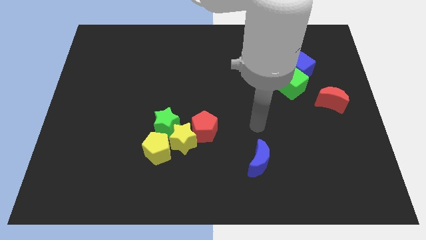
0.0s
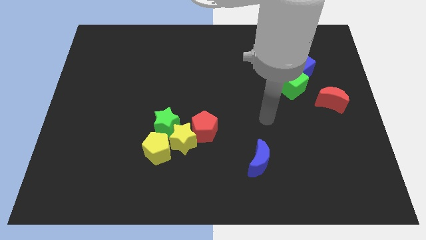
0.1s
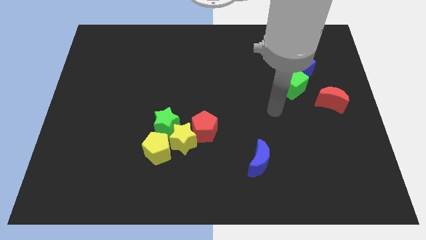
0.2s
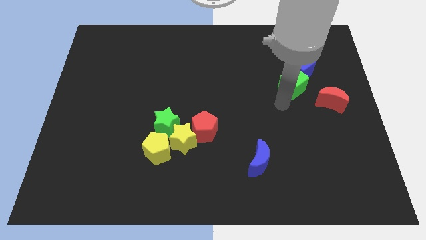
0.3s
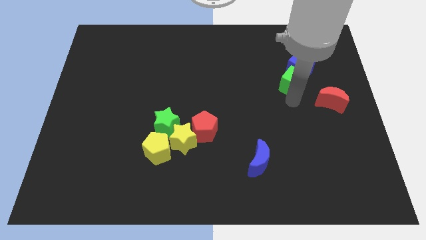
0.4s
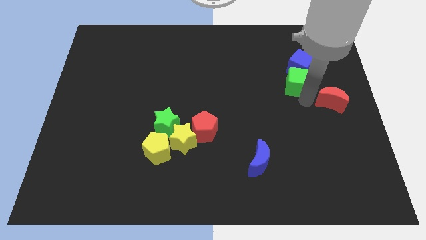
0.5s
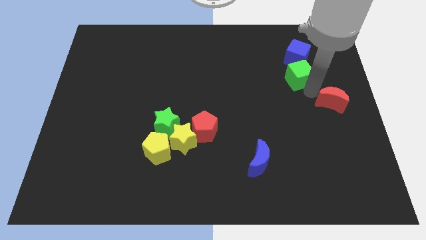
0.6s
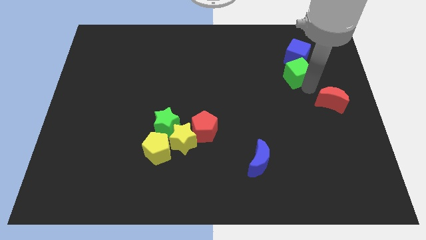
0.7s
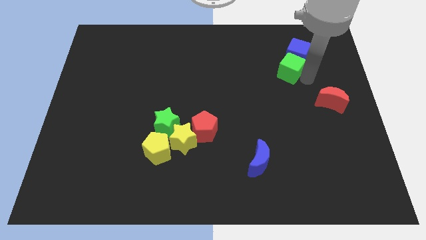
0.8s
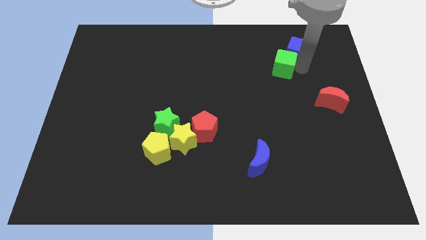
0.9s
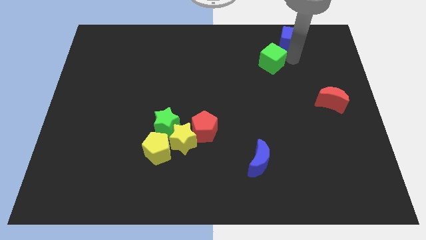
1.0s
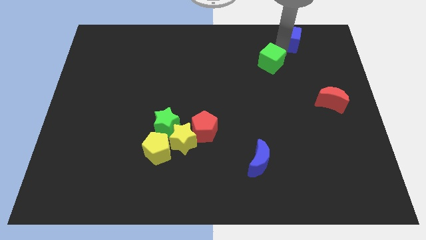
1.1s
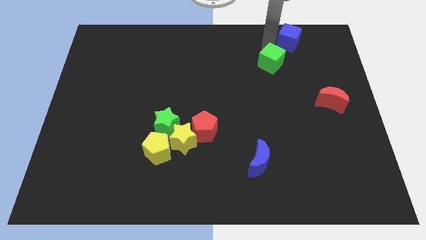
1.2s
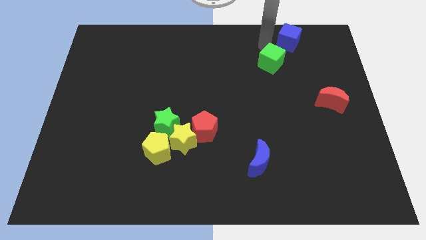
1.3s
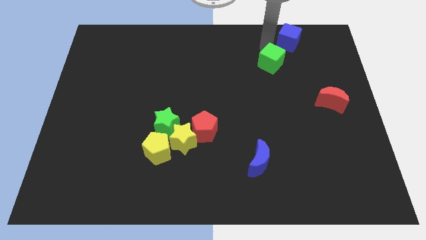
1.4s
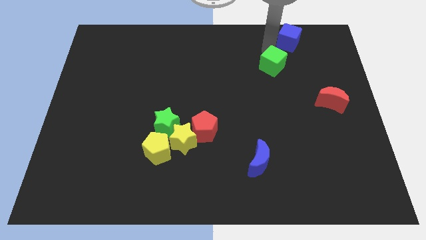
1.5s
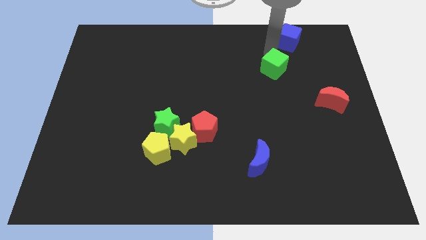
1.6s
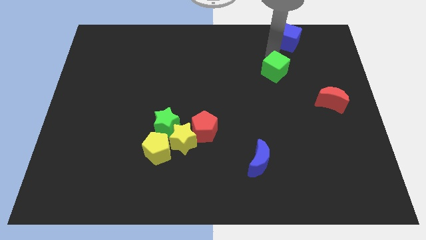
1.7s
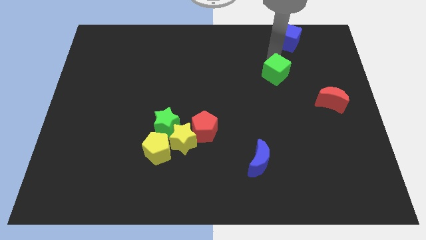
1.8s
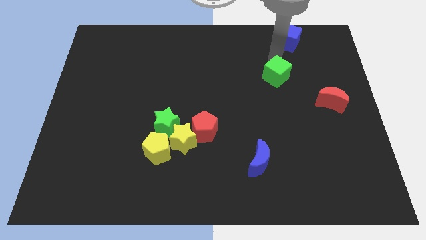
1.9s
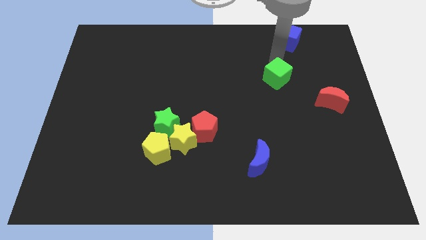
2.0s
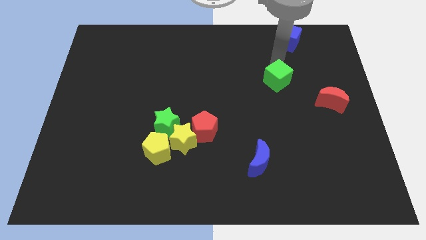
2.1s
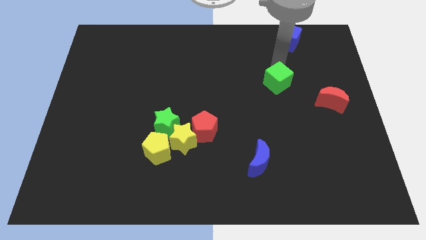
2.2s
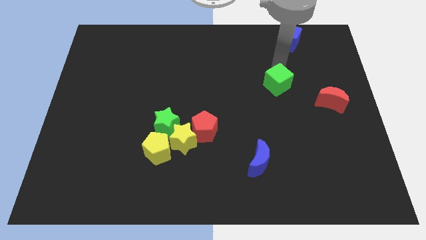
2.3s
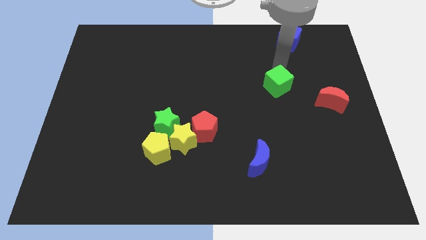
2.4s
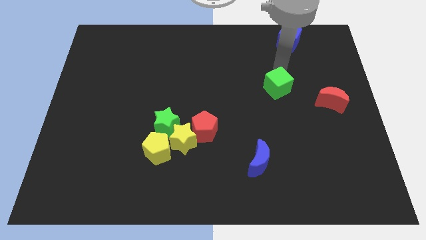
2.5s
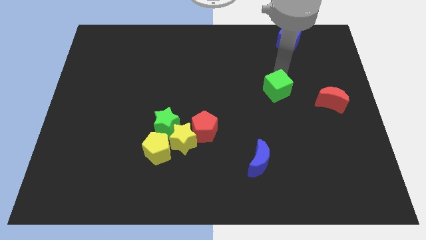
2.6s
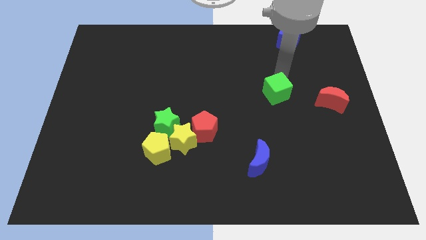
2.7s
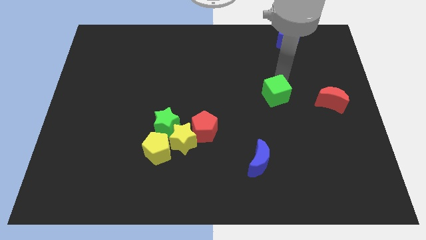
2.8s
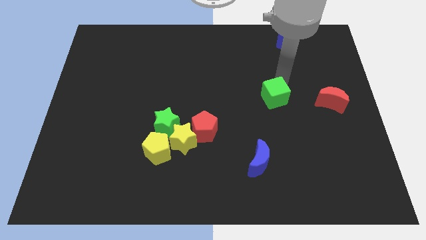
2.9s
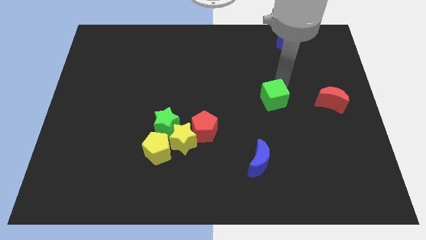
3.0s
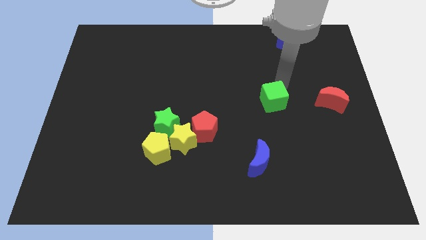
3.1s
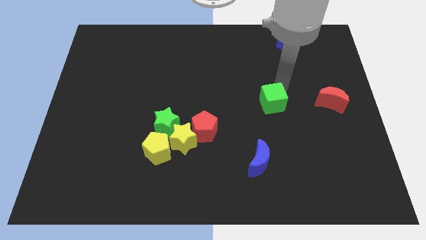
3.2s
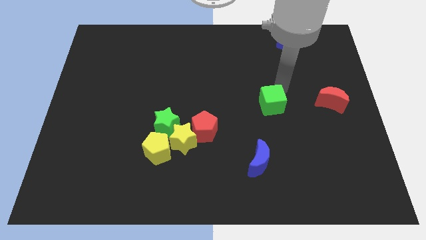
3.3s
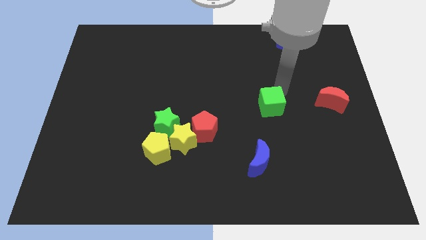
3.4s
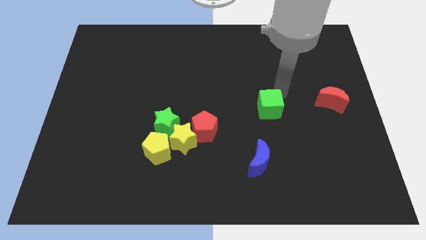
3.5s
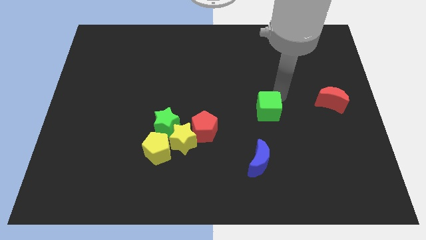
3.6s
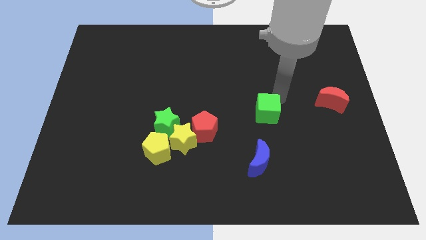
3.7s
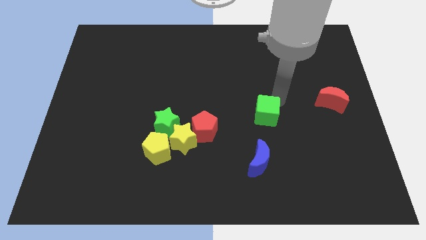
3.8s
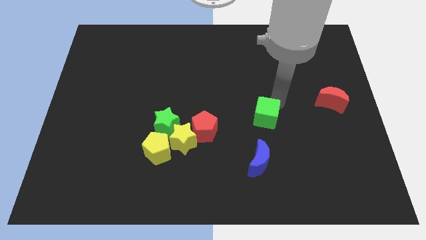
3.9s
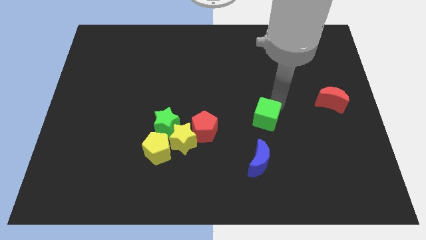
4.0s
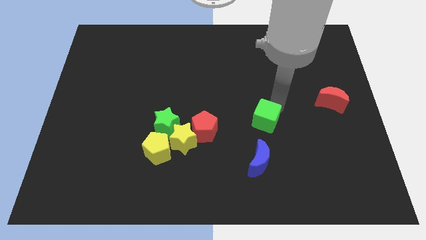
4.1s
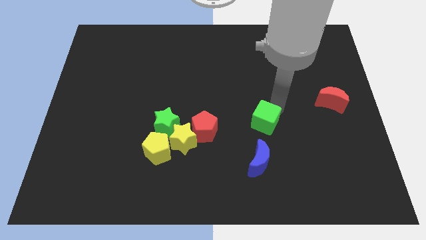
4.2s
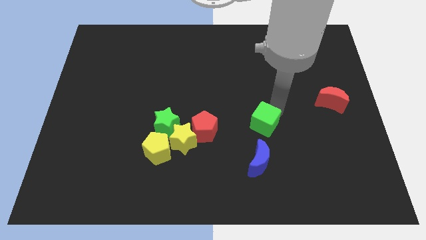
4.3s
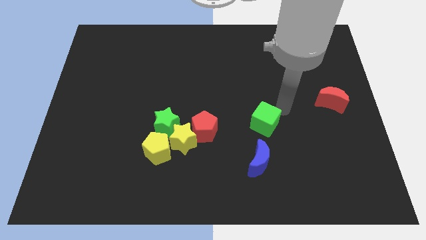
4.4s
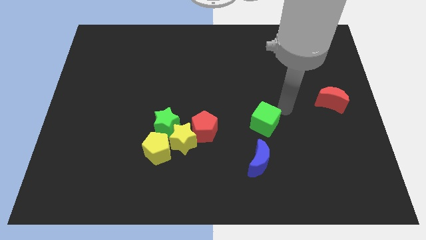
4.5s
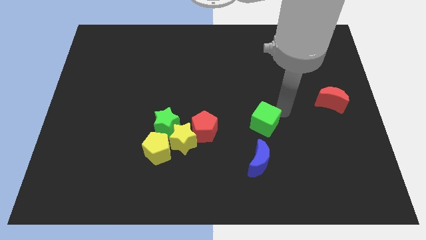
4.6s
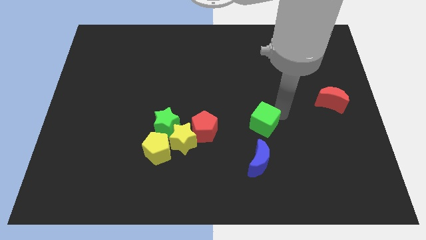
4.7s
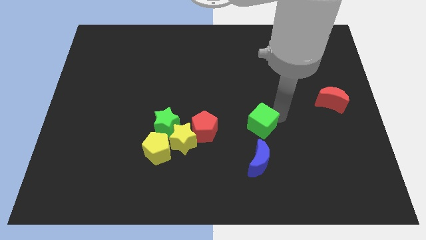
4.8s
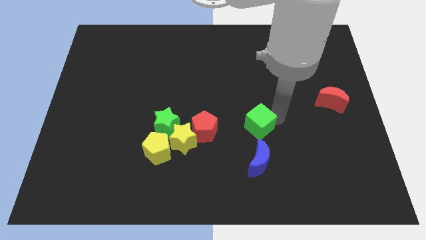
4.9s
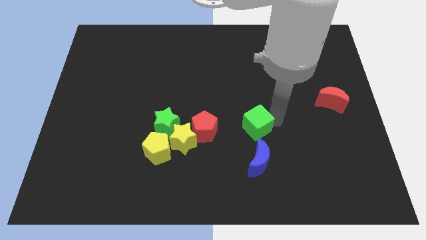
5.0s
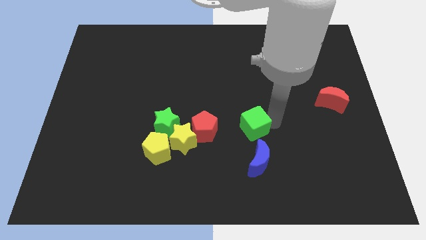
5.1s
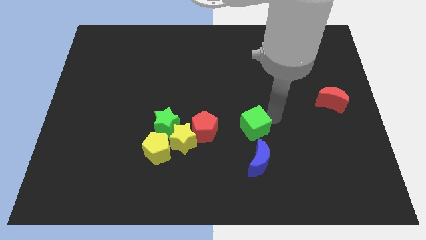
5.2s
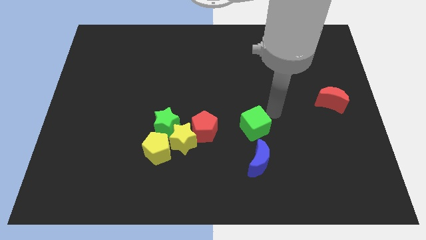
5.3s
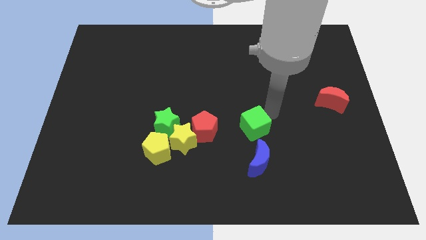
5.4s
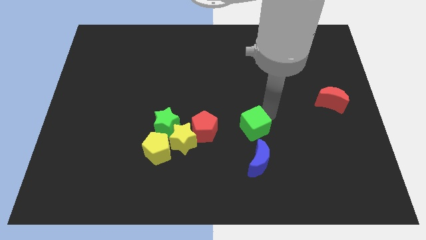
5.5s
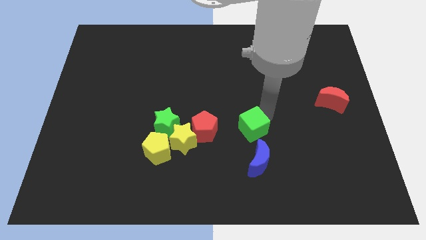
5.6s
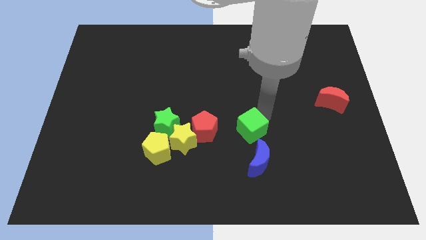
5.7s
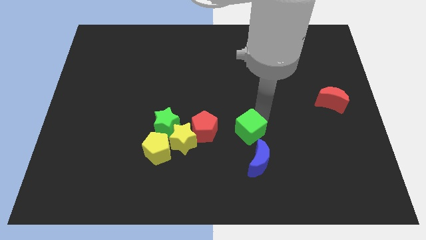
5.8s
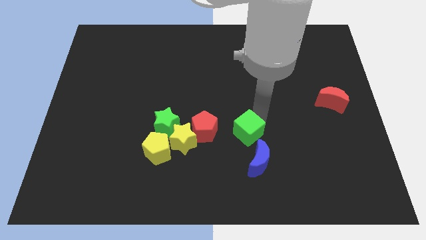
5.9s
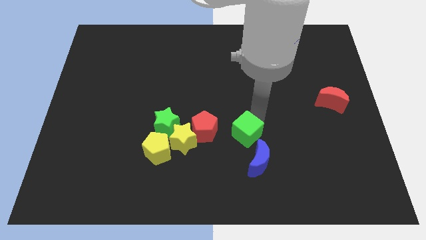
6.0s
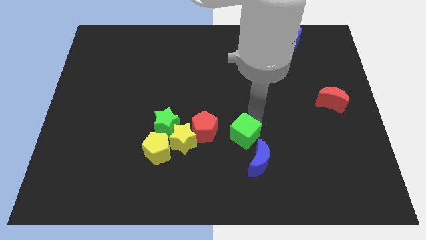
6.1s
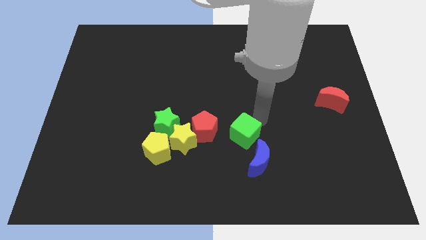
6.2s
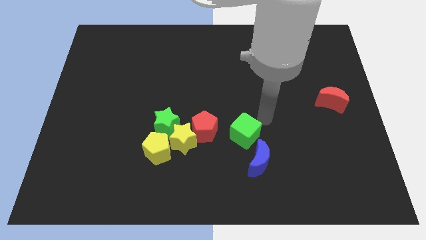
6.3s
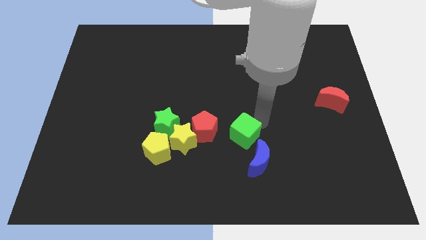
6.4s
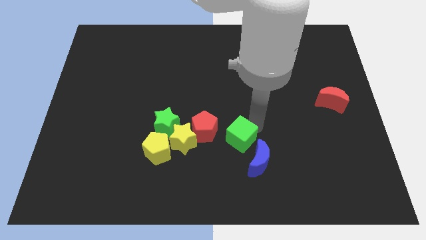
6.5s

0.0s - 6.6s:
slide the green cube diagonally down and to the left

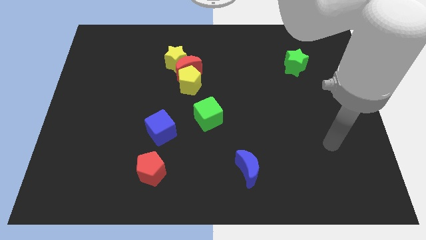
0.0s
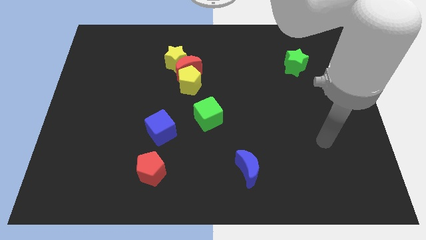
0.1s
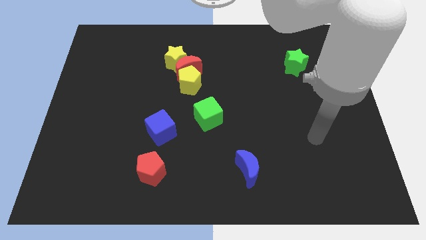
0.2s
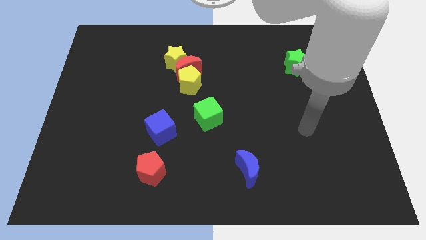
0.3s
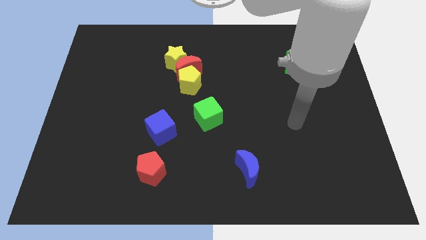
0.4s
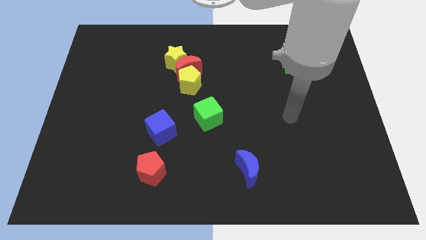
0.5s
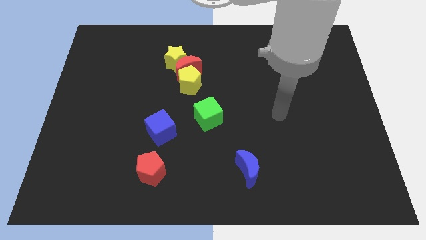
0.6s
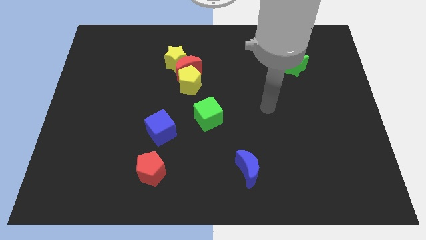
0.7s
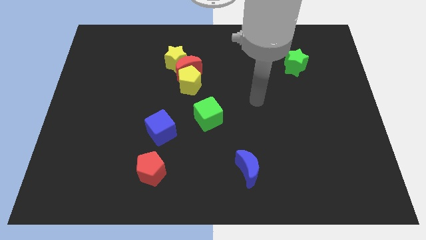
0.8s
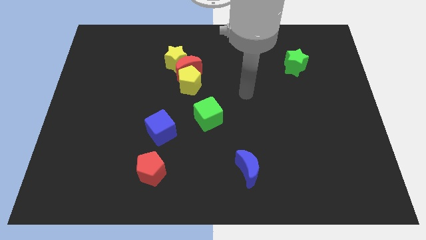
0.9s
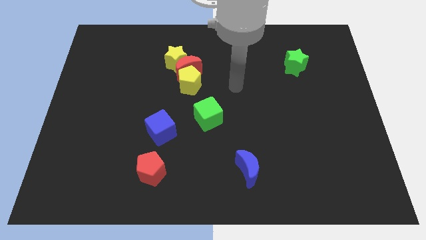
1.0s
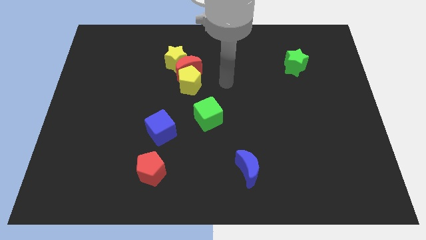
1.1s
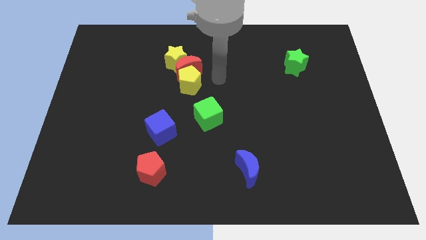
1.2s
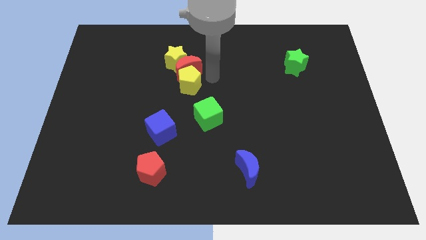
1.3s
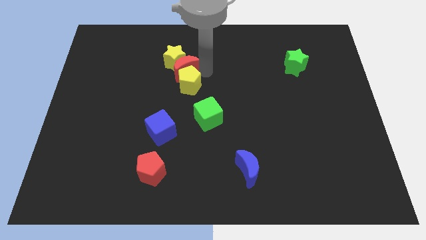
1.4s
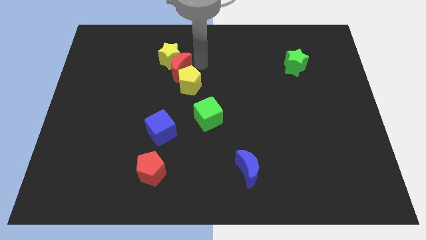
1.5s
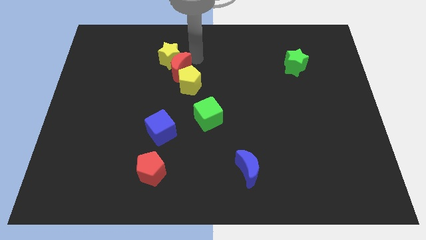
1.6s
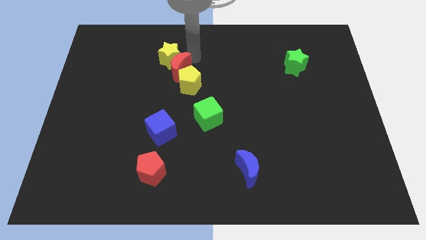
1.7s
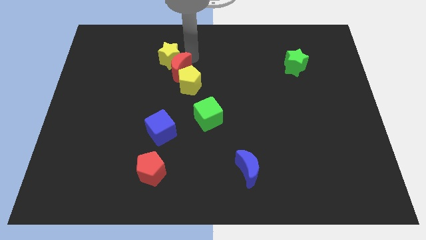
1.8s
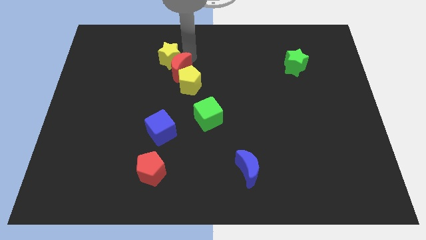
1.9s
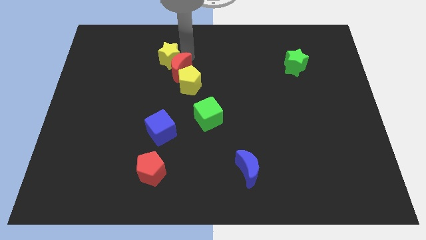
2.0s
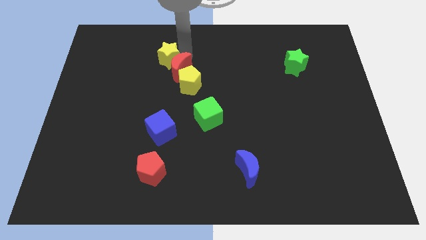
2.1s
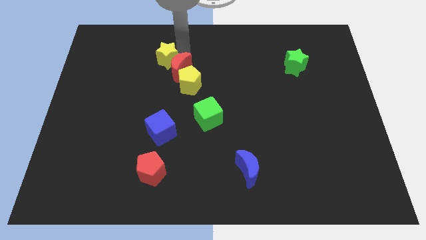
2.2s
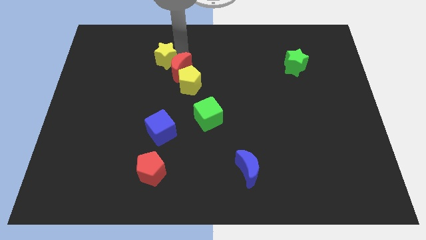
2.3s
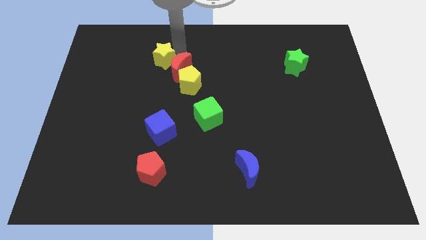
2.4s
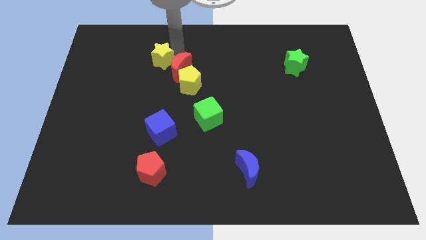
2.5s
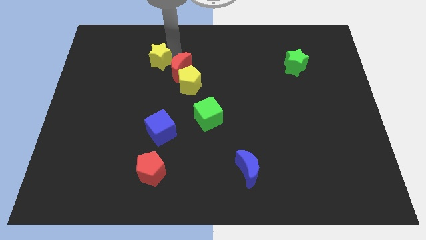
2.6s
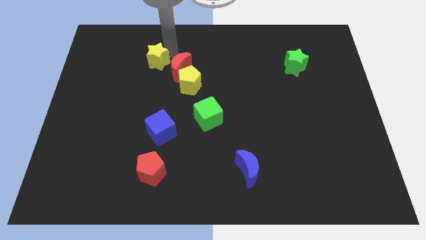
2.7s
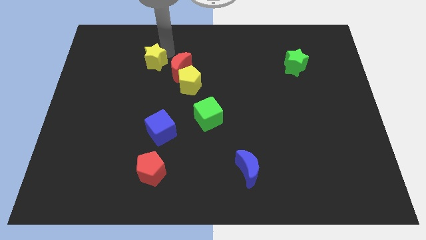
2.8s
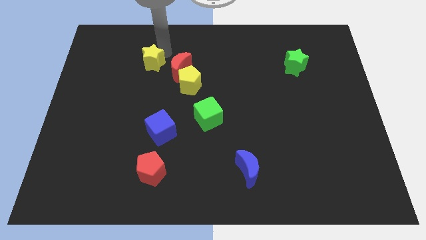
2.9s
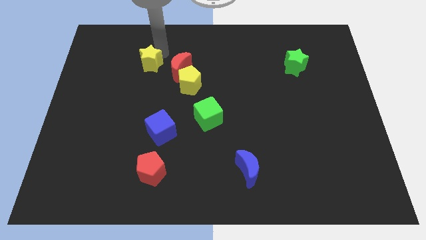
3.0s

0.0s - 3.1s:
slightly move the yellow star left
